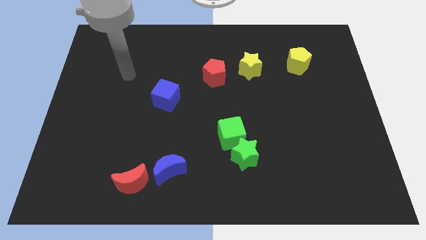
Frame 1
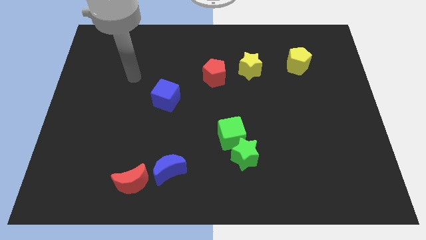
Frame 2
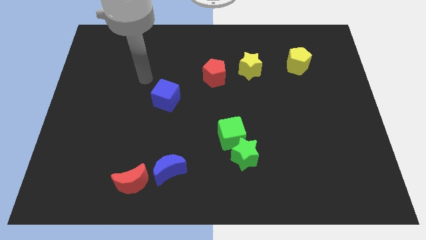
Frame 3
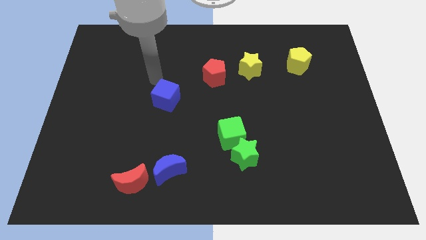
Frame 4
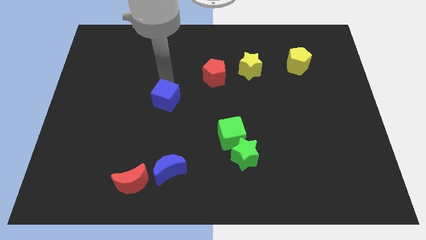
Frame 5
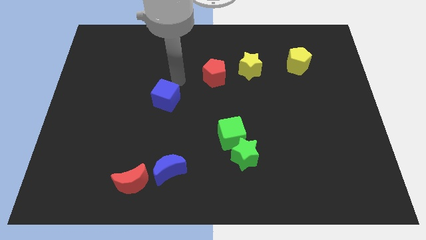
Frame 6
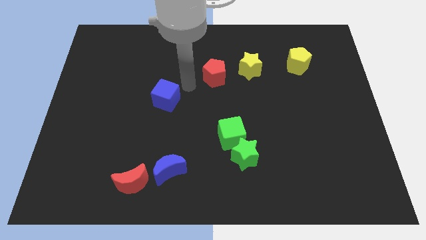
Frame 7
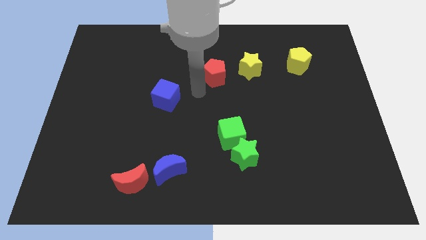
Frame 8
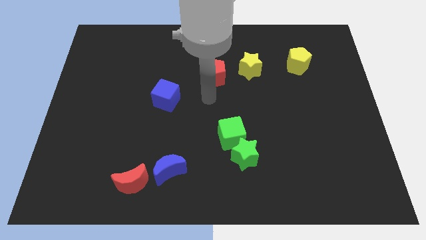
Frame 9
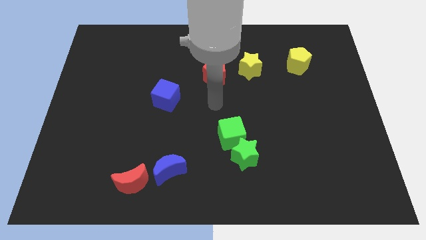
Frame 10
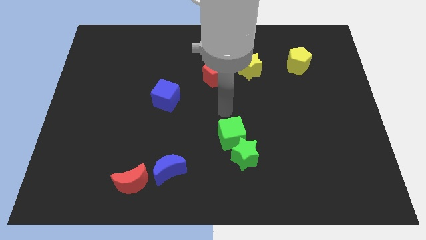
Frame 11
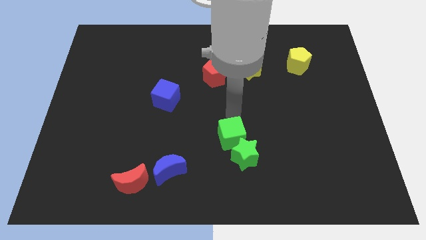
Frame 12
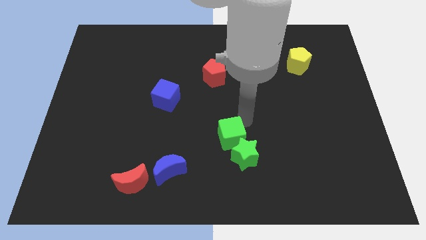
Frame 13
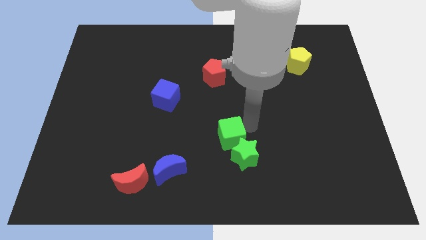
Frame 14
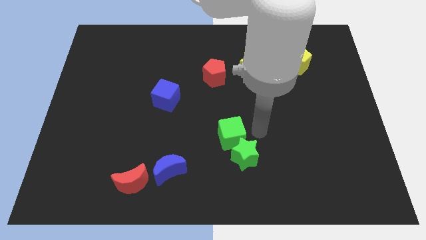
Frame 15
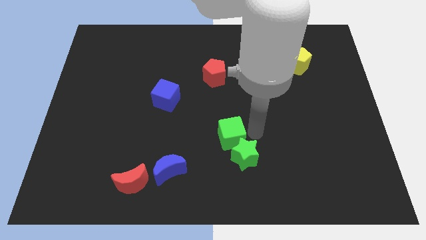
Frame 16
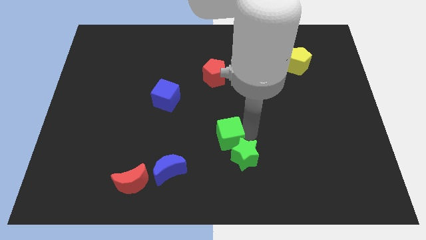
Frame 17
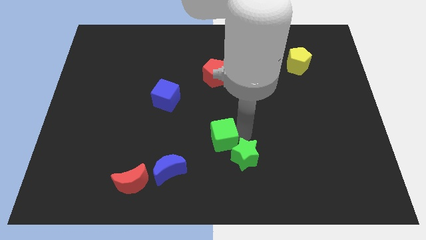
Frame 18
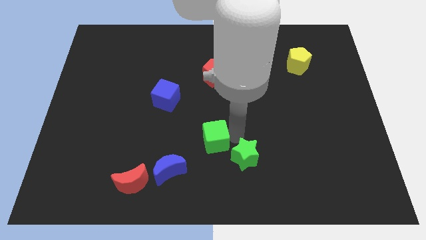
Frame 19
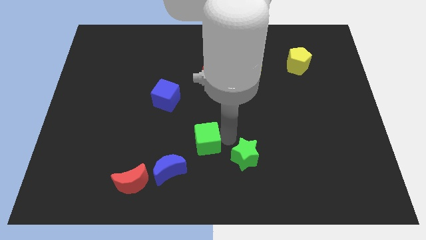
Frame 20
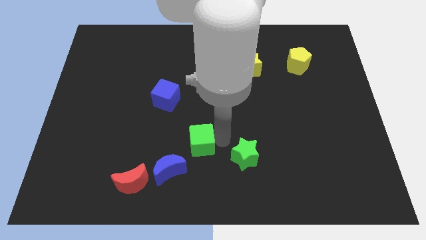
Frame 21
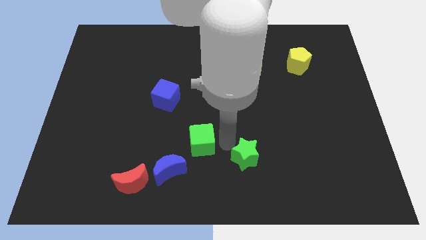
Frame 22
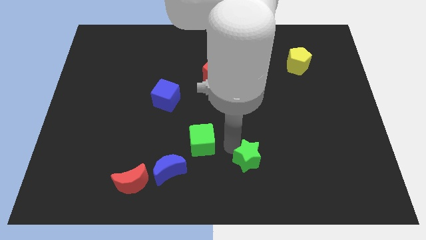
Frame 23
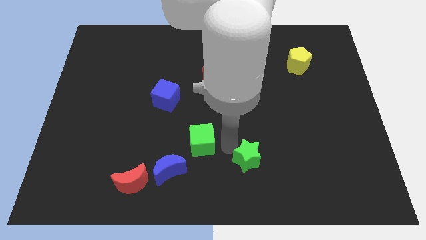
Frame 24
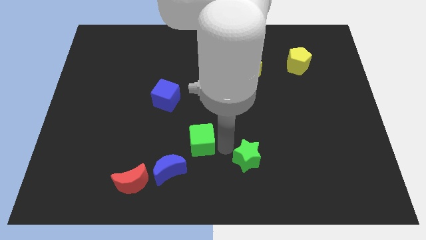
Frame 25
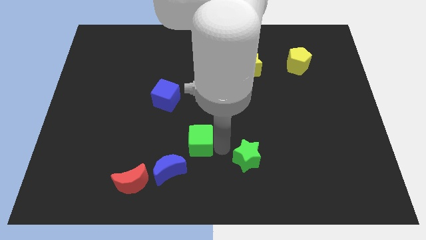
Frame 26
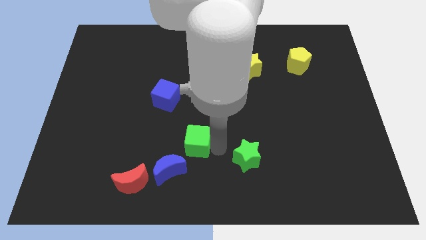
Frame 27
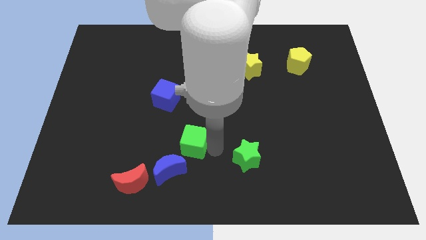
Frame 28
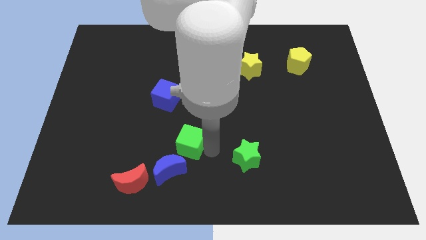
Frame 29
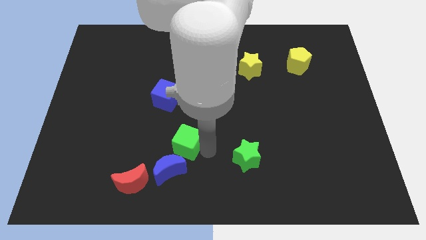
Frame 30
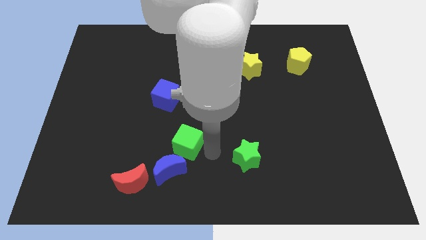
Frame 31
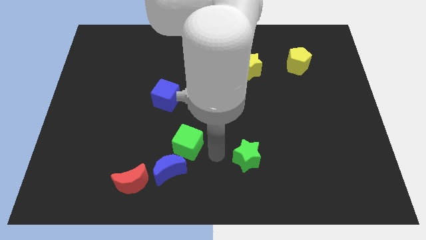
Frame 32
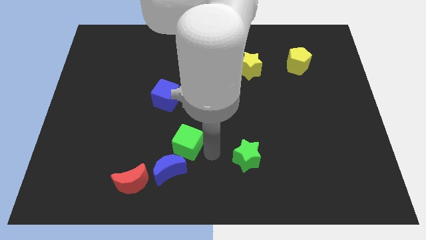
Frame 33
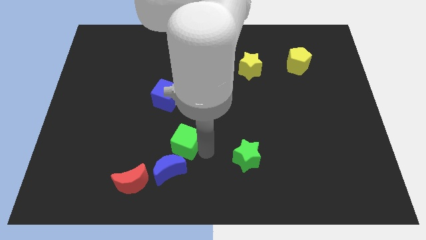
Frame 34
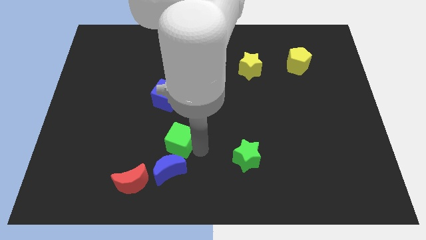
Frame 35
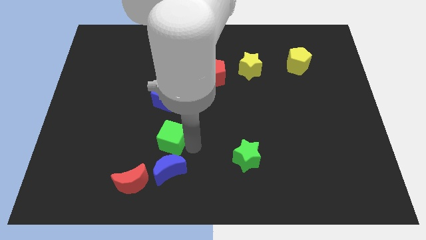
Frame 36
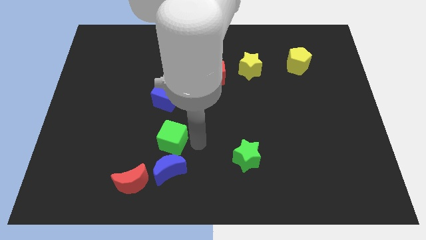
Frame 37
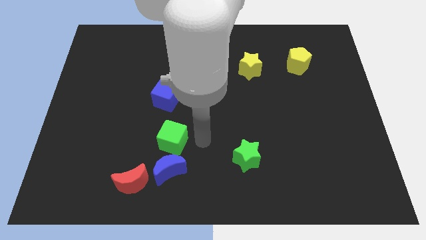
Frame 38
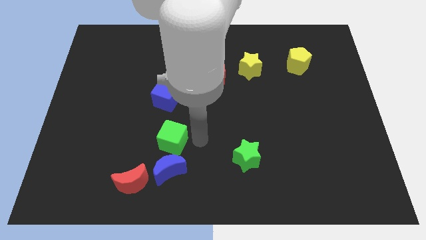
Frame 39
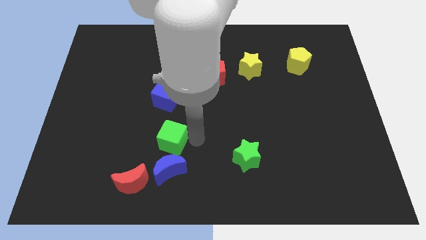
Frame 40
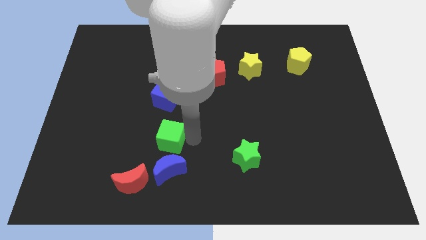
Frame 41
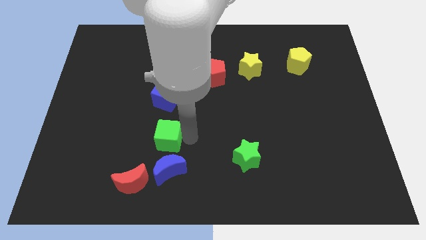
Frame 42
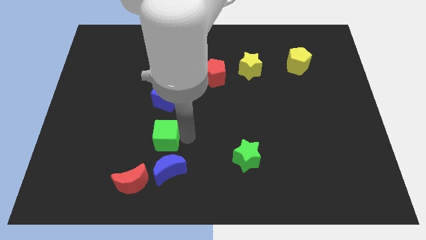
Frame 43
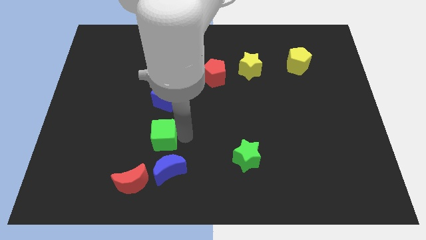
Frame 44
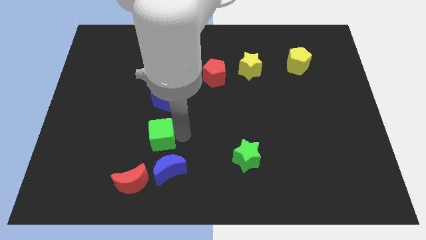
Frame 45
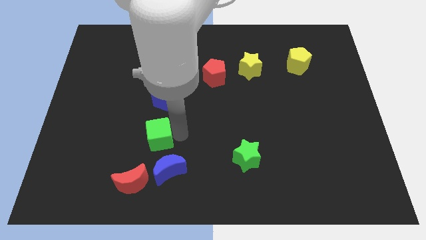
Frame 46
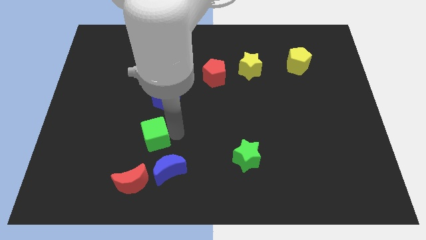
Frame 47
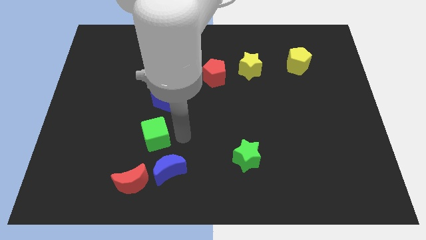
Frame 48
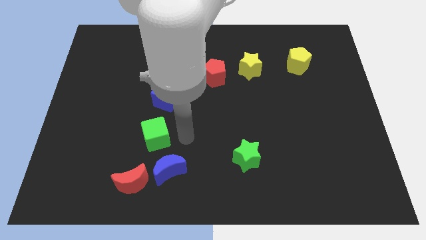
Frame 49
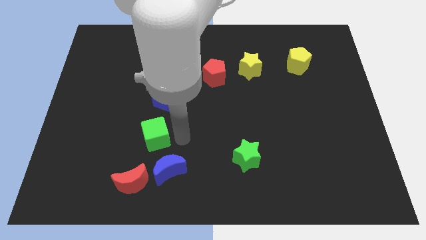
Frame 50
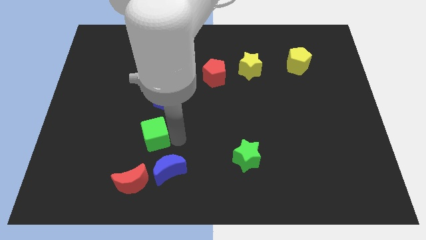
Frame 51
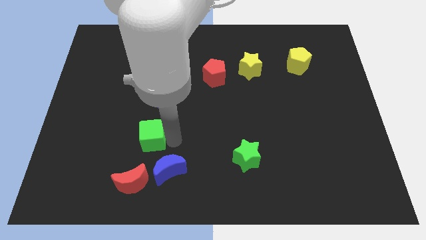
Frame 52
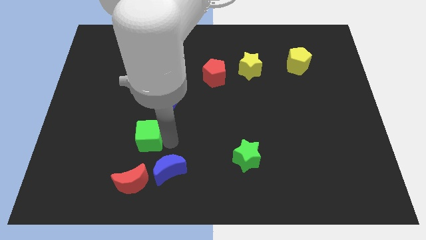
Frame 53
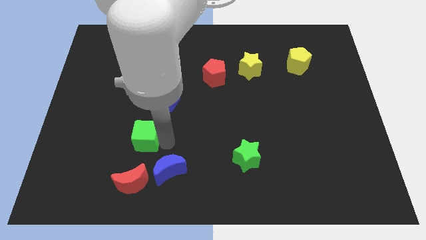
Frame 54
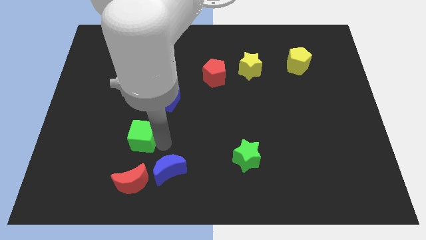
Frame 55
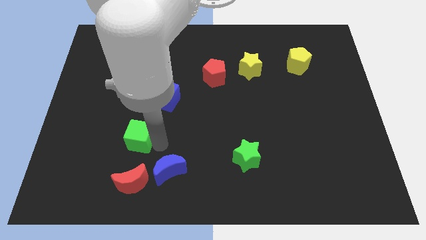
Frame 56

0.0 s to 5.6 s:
push the green cube left

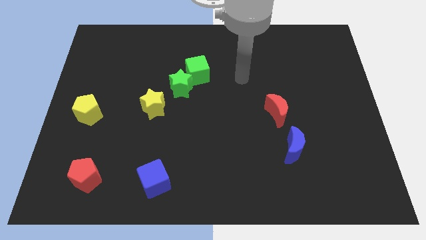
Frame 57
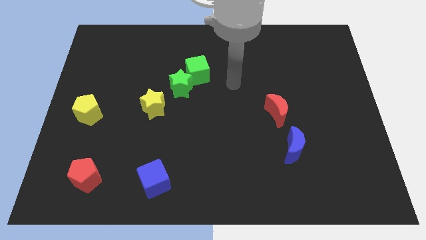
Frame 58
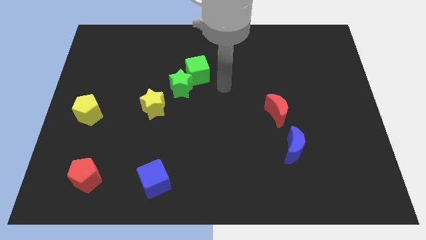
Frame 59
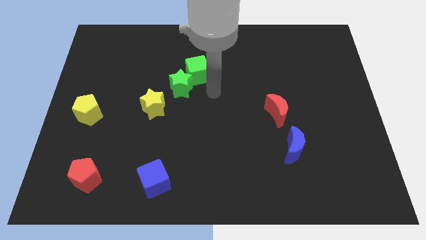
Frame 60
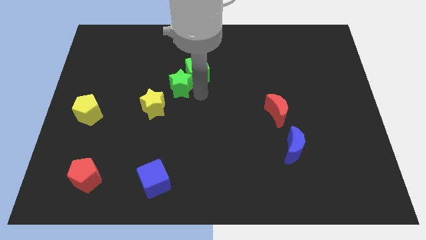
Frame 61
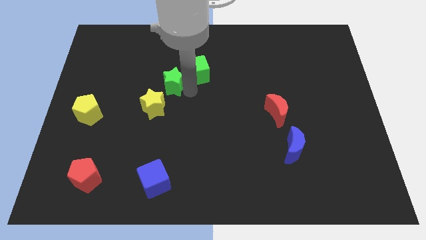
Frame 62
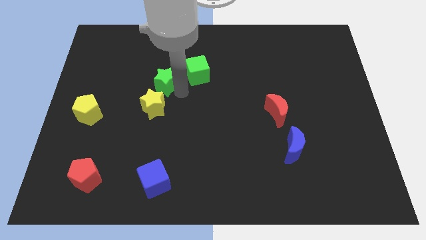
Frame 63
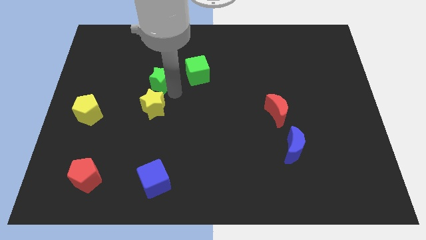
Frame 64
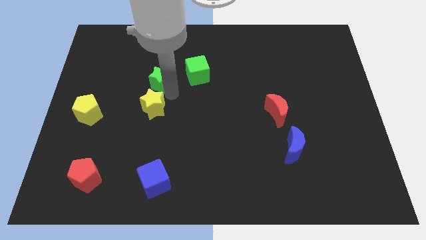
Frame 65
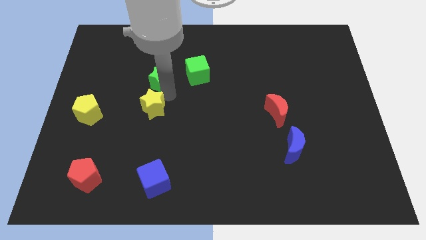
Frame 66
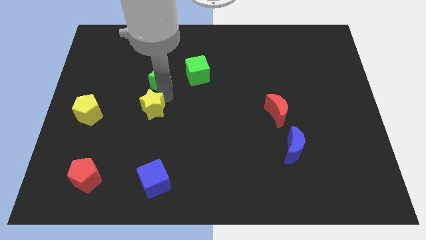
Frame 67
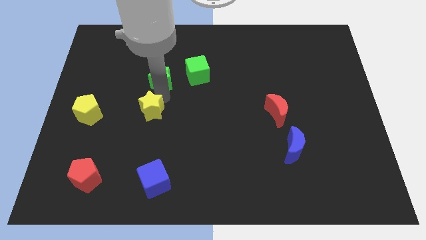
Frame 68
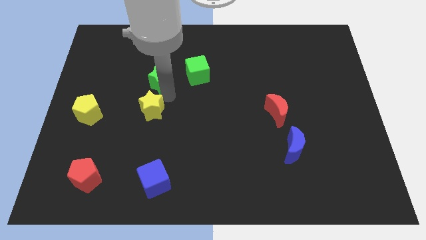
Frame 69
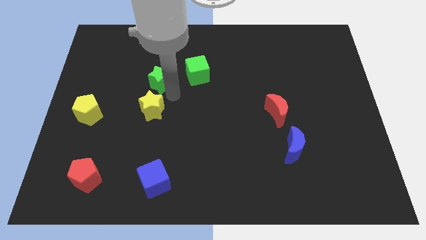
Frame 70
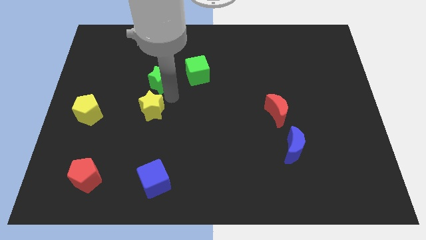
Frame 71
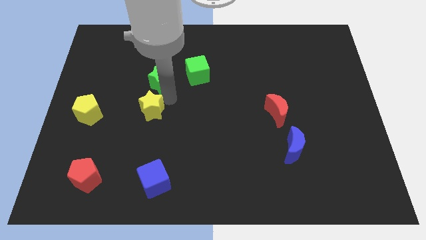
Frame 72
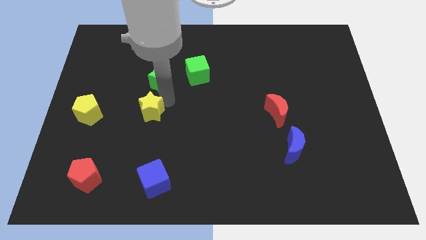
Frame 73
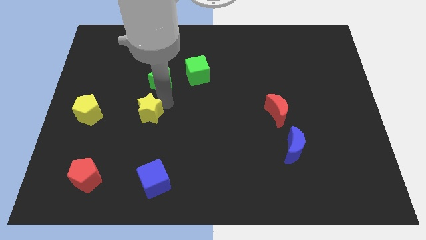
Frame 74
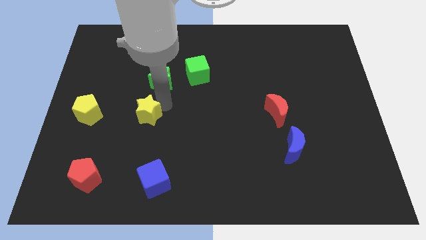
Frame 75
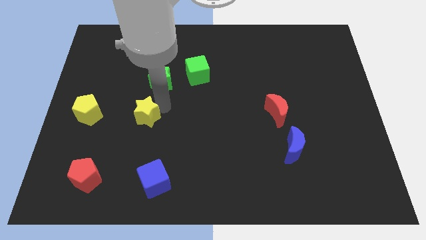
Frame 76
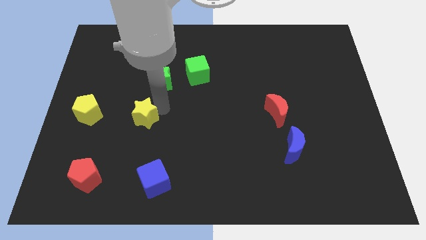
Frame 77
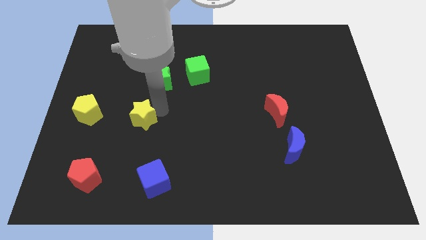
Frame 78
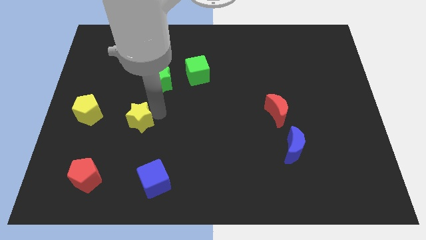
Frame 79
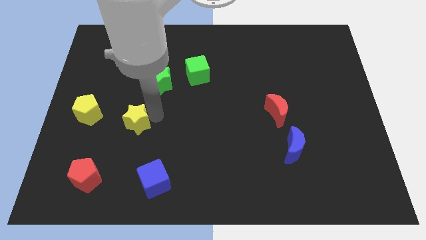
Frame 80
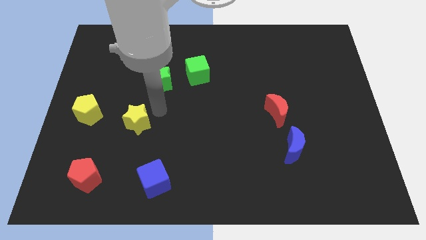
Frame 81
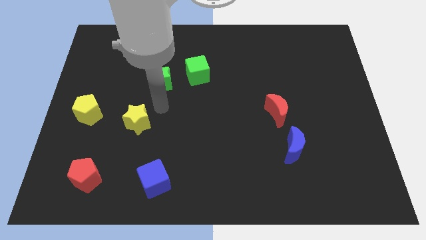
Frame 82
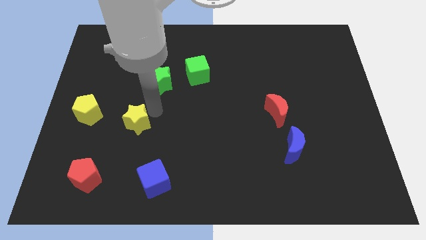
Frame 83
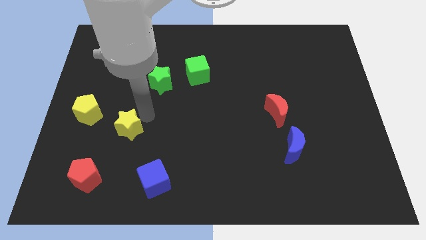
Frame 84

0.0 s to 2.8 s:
slide the yellow star down and to the left a little bit

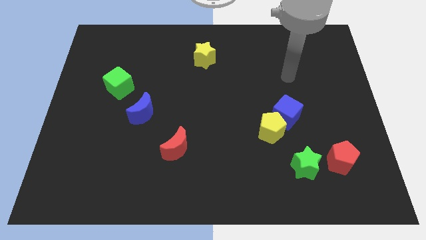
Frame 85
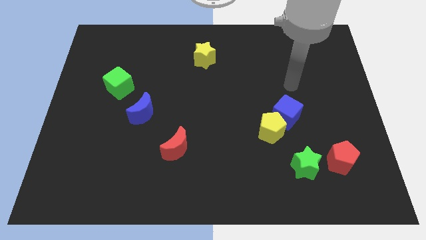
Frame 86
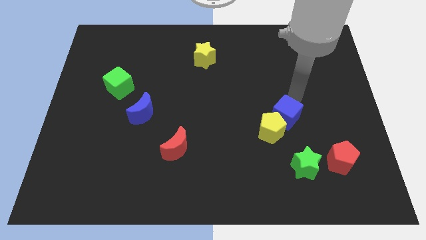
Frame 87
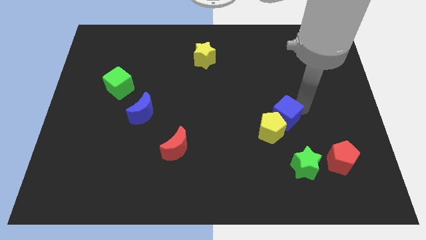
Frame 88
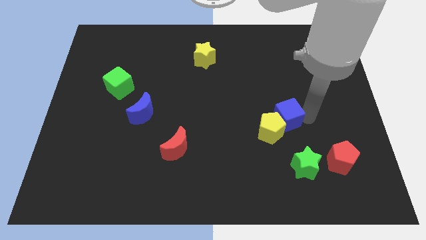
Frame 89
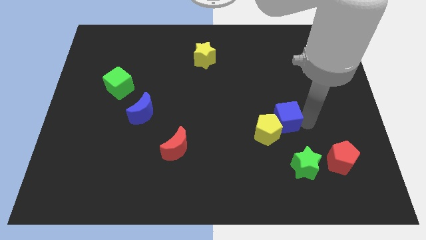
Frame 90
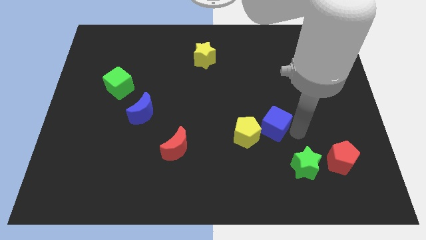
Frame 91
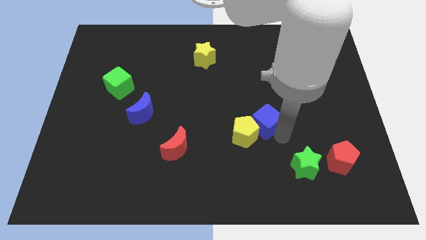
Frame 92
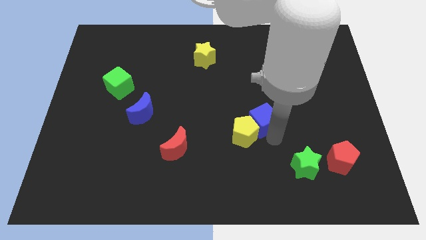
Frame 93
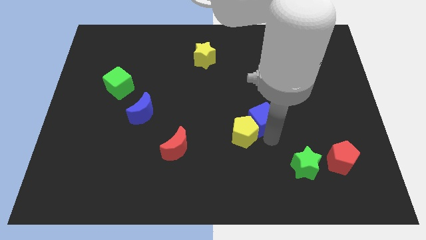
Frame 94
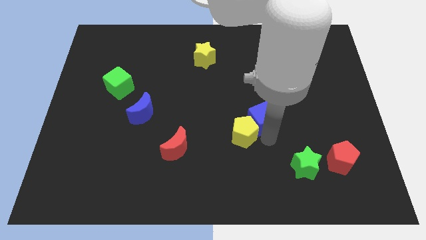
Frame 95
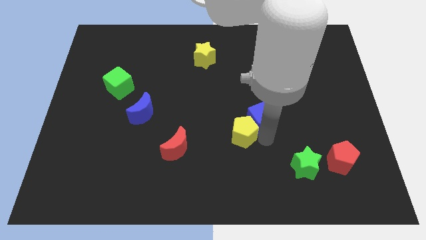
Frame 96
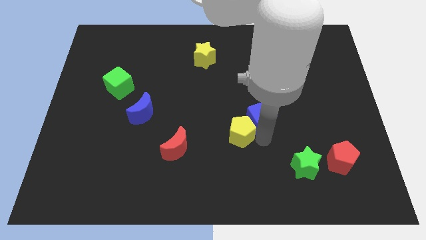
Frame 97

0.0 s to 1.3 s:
slightly slide the yellow pentagon left
